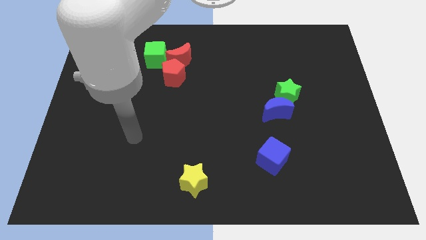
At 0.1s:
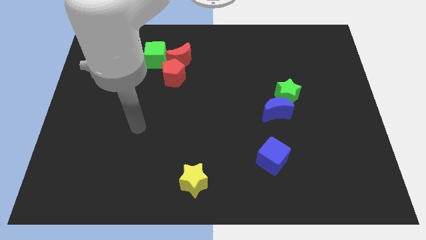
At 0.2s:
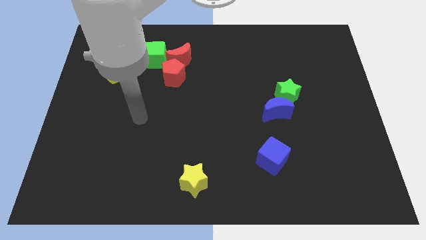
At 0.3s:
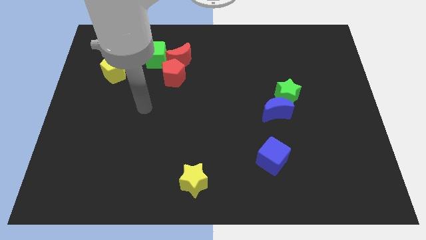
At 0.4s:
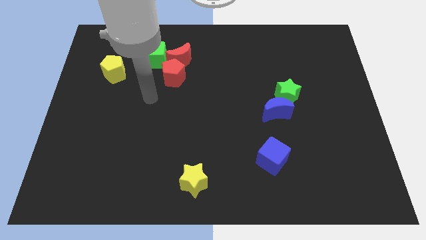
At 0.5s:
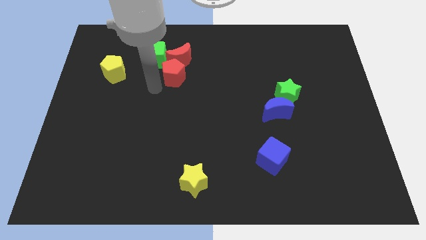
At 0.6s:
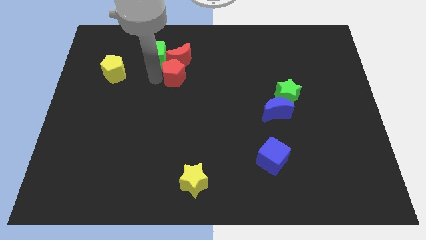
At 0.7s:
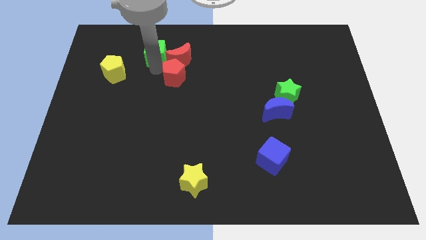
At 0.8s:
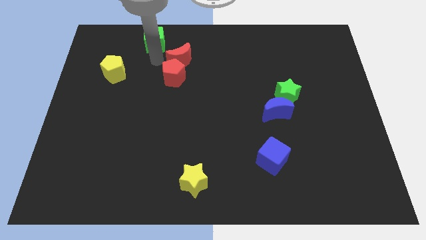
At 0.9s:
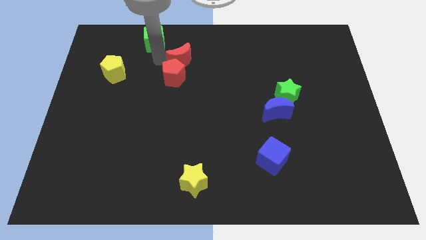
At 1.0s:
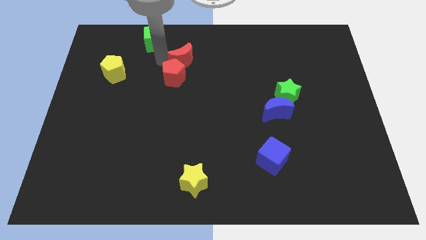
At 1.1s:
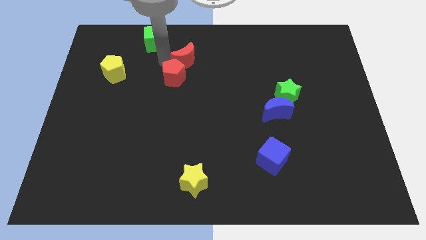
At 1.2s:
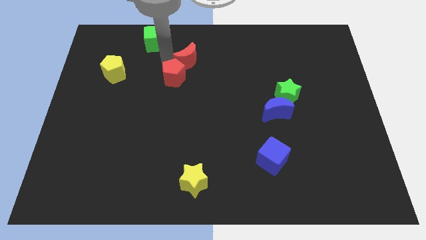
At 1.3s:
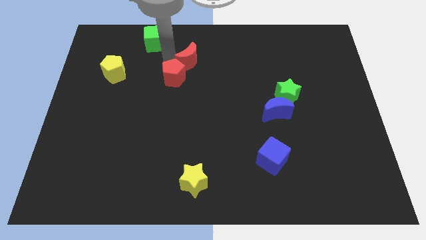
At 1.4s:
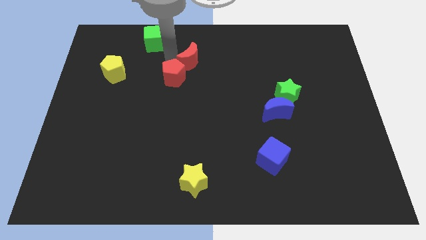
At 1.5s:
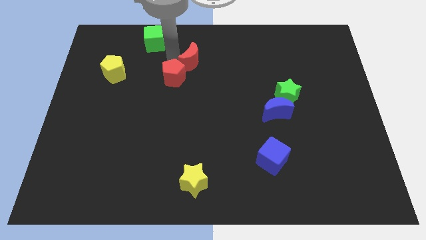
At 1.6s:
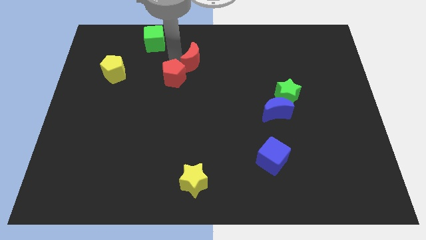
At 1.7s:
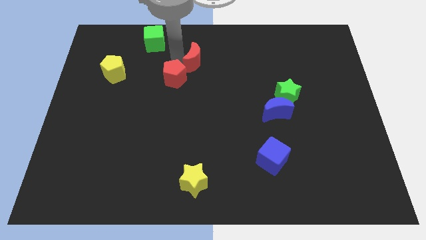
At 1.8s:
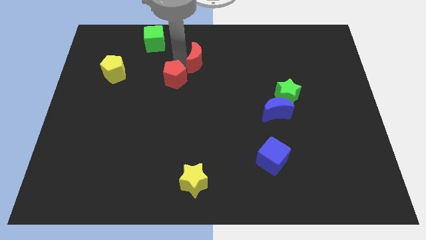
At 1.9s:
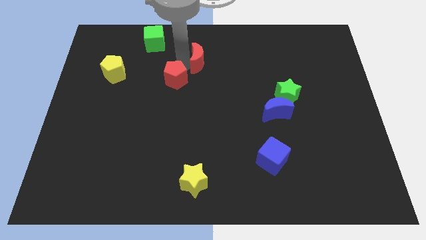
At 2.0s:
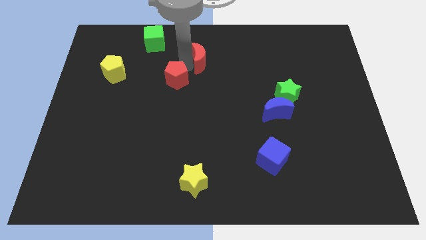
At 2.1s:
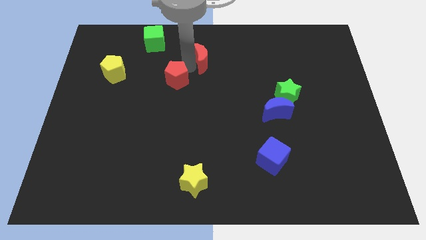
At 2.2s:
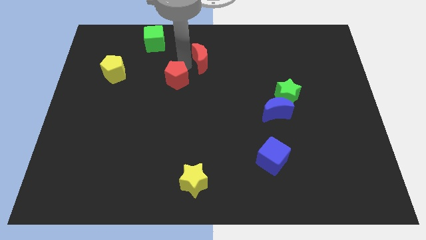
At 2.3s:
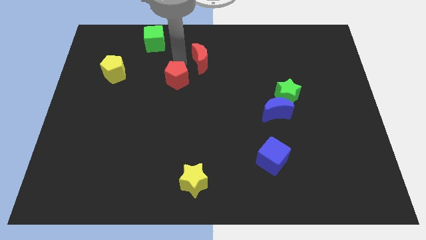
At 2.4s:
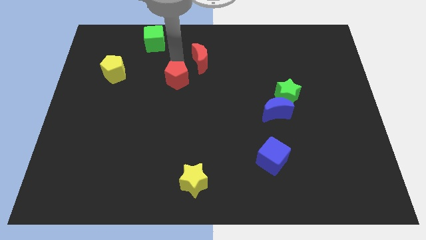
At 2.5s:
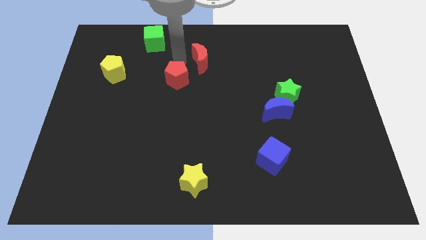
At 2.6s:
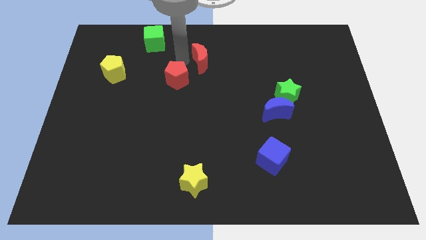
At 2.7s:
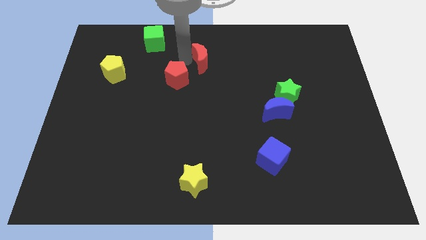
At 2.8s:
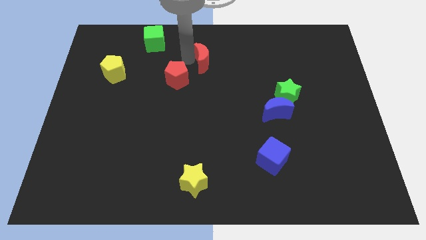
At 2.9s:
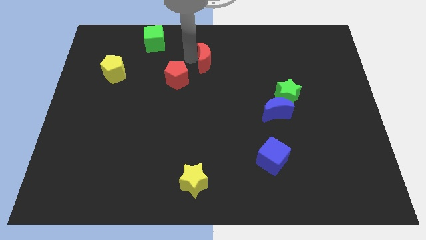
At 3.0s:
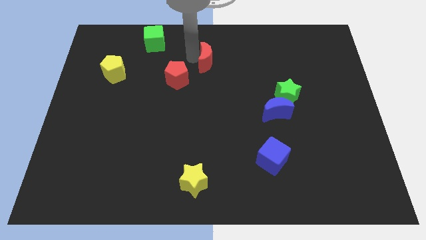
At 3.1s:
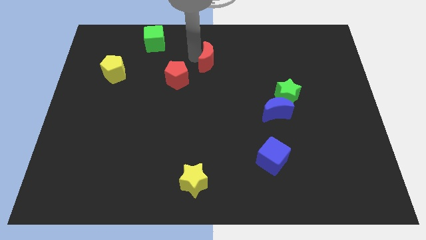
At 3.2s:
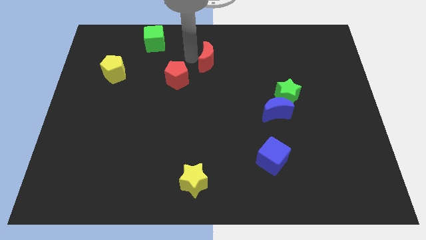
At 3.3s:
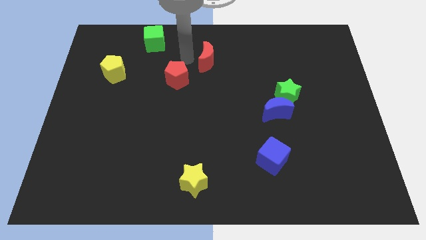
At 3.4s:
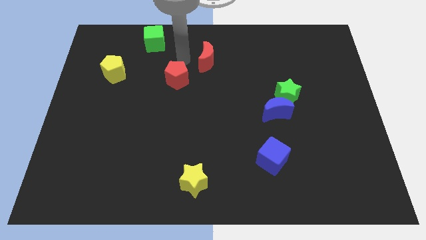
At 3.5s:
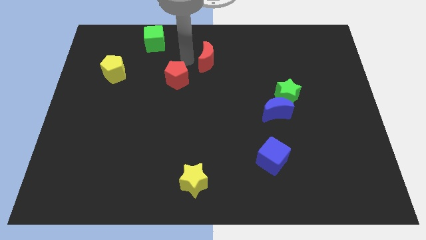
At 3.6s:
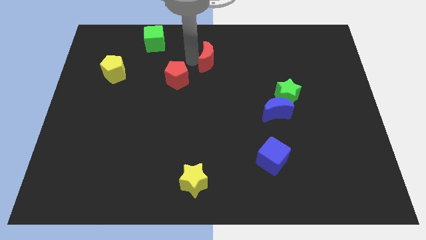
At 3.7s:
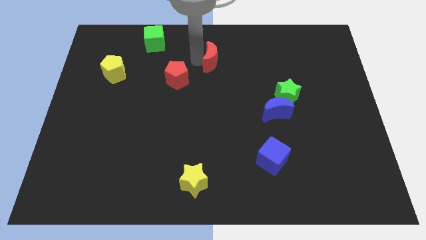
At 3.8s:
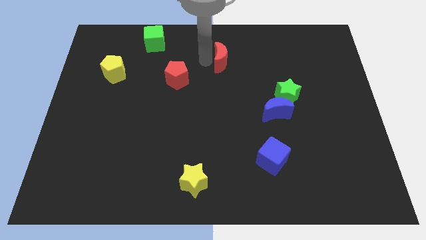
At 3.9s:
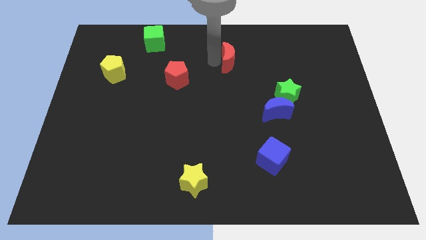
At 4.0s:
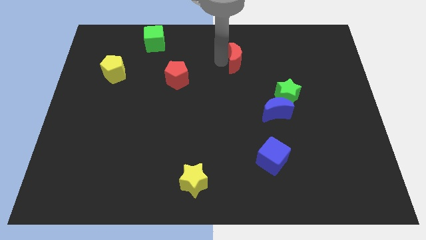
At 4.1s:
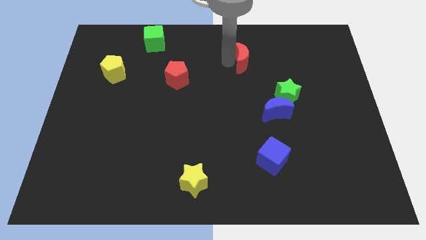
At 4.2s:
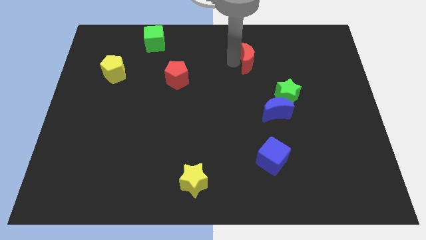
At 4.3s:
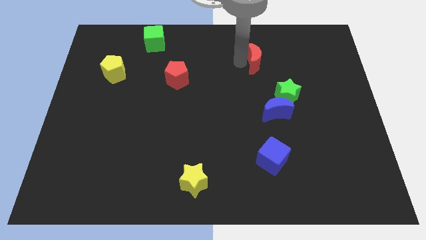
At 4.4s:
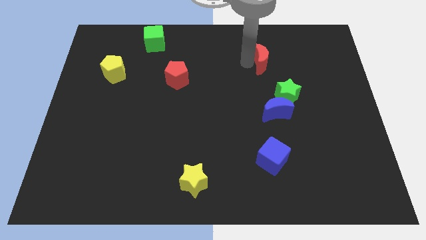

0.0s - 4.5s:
move the red moon right

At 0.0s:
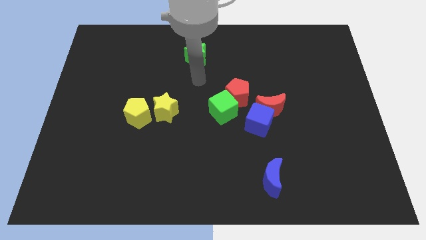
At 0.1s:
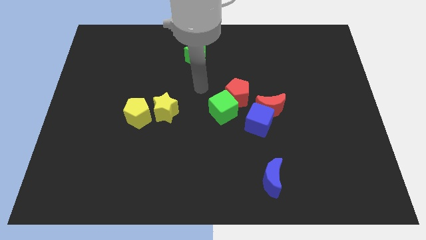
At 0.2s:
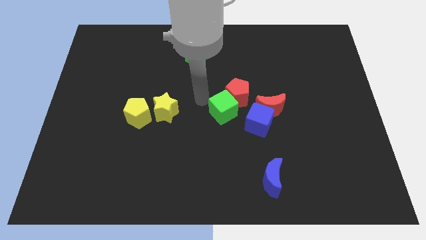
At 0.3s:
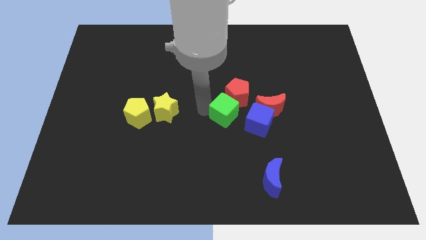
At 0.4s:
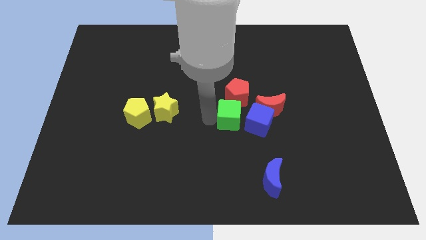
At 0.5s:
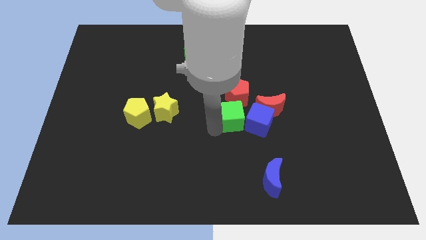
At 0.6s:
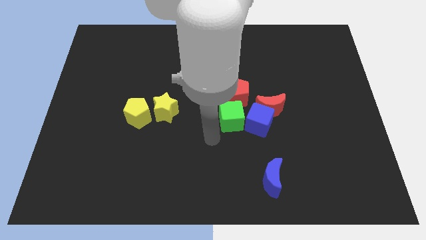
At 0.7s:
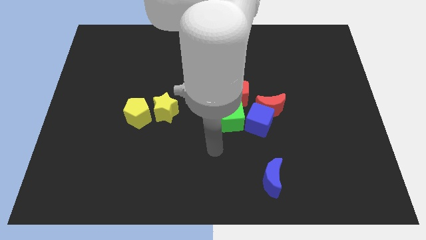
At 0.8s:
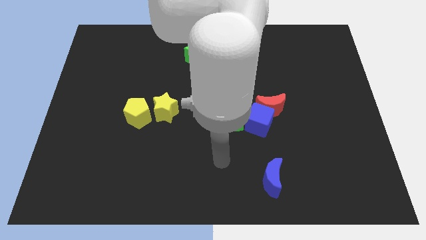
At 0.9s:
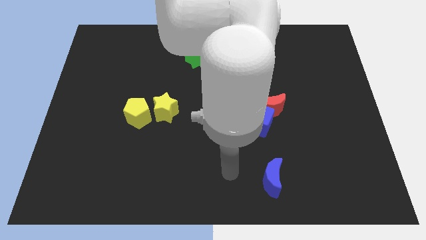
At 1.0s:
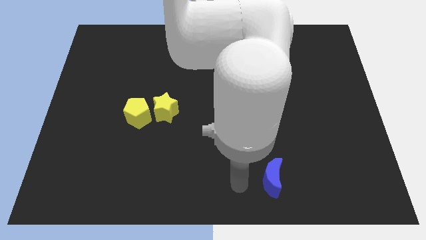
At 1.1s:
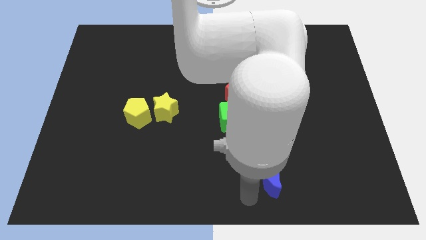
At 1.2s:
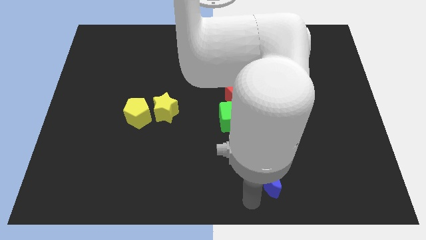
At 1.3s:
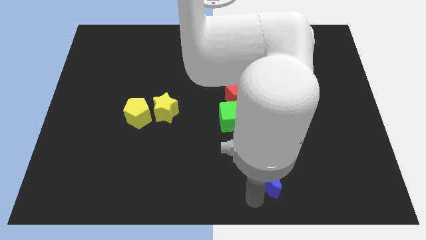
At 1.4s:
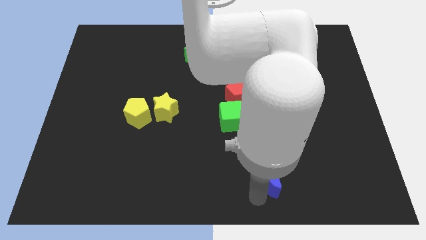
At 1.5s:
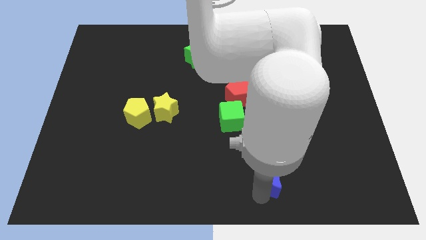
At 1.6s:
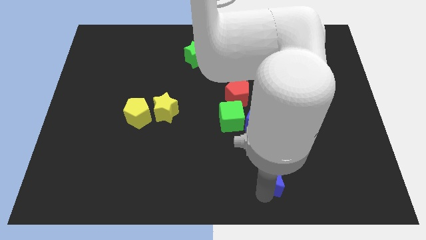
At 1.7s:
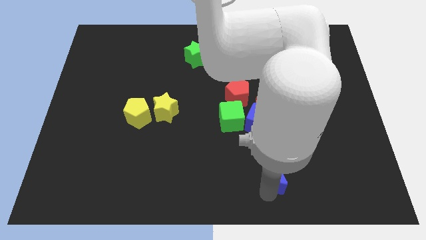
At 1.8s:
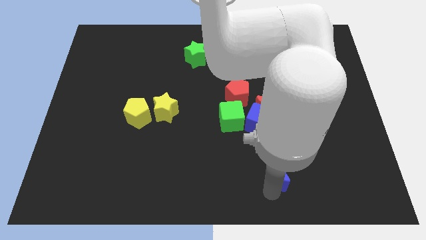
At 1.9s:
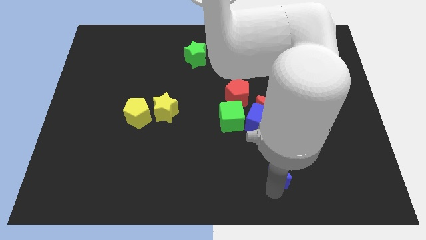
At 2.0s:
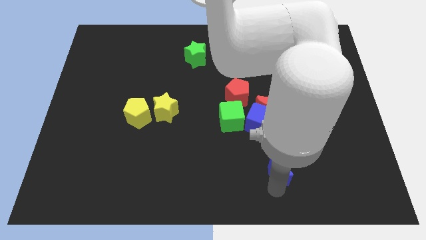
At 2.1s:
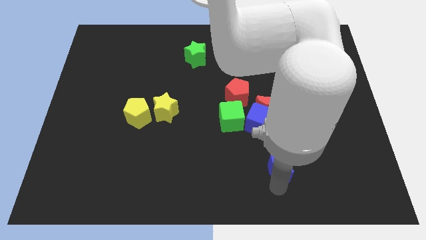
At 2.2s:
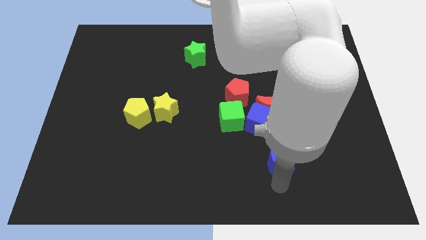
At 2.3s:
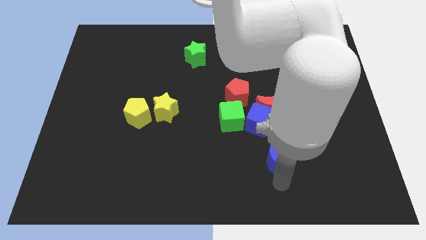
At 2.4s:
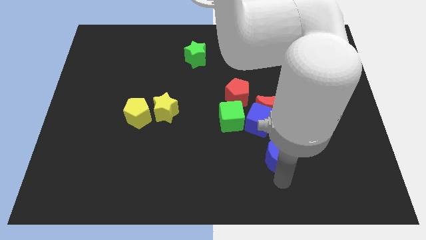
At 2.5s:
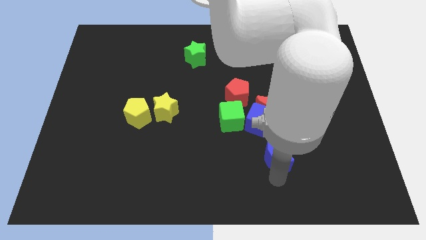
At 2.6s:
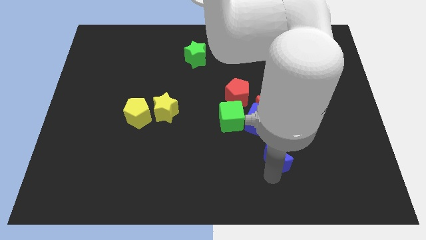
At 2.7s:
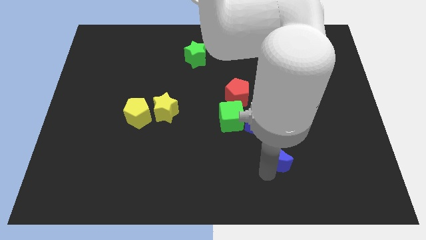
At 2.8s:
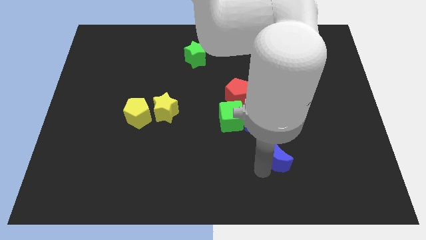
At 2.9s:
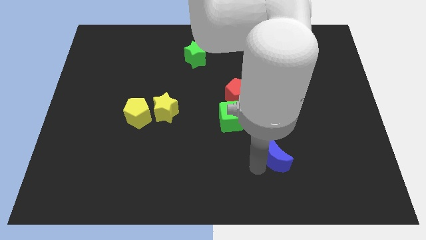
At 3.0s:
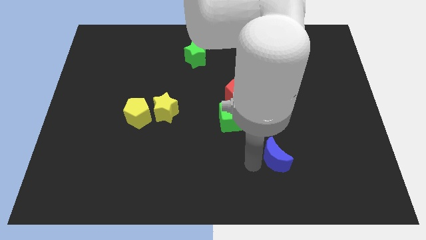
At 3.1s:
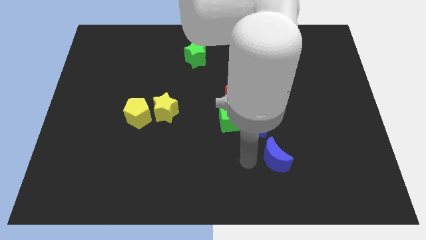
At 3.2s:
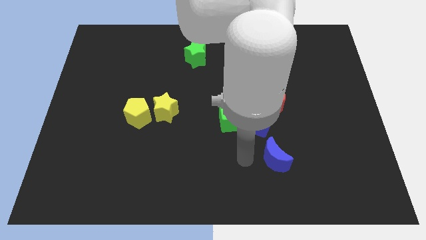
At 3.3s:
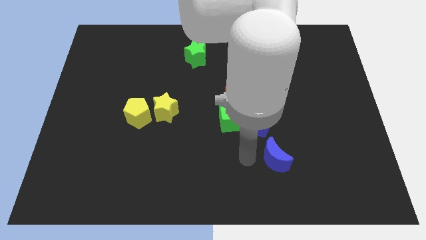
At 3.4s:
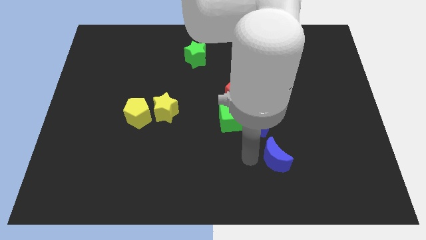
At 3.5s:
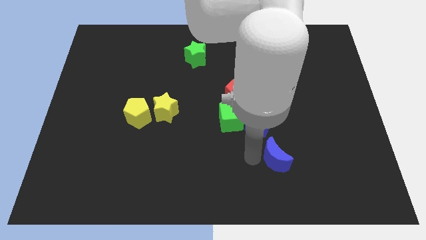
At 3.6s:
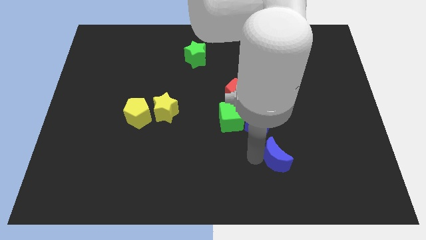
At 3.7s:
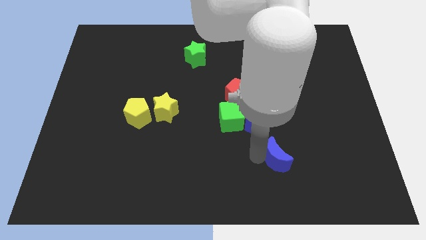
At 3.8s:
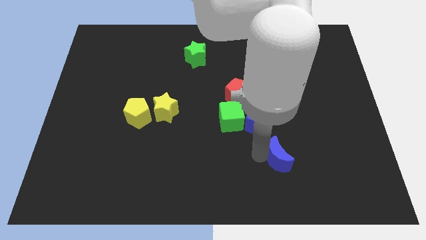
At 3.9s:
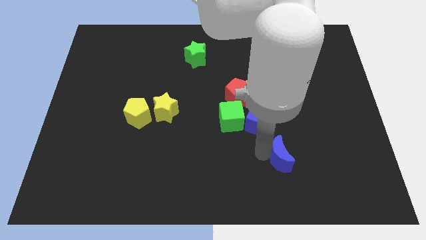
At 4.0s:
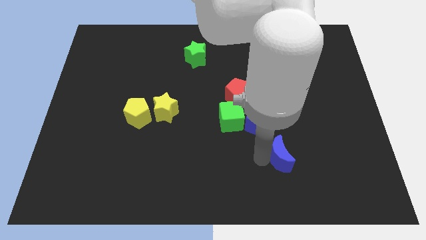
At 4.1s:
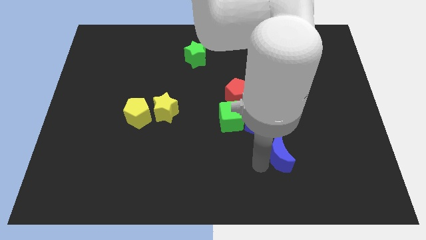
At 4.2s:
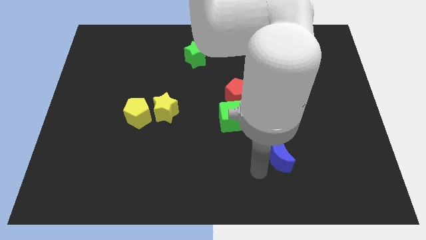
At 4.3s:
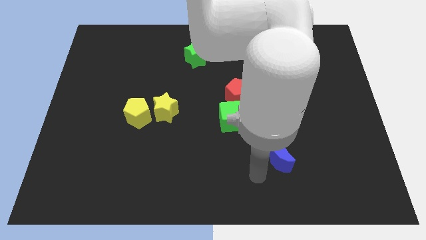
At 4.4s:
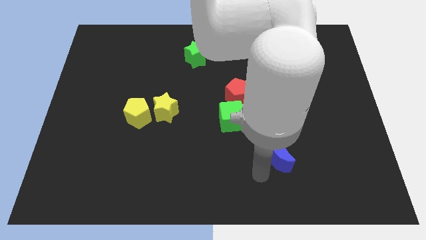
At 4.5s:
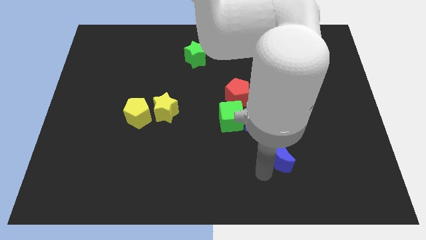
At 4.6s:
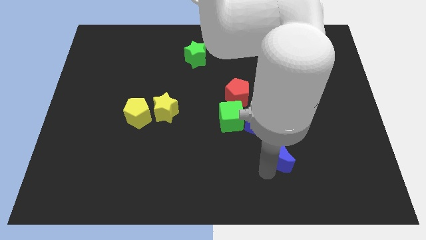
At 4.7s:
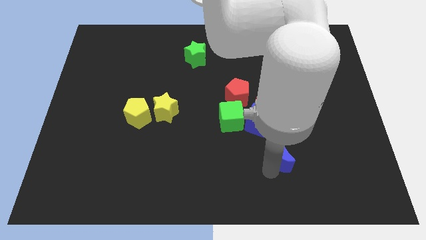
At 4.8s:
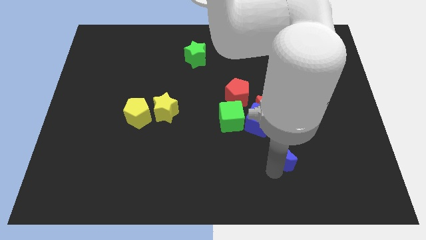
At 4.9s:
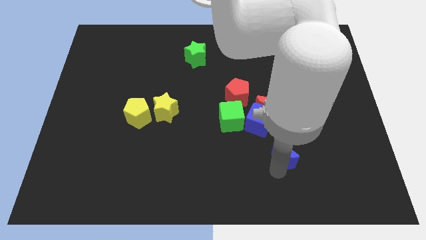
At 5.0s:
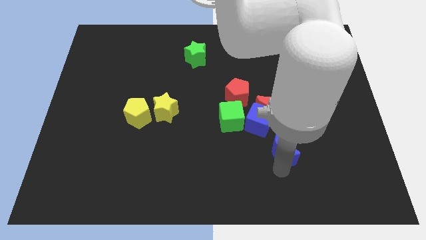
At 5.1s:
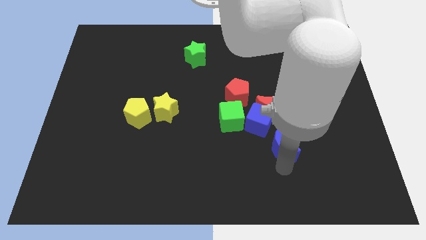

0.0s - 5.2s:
slightly move the blue moon diagonally up and right
